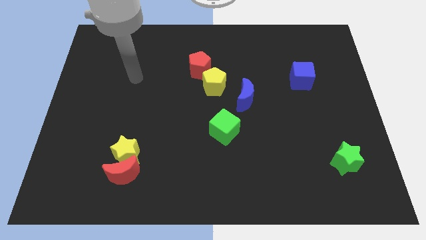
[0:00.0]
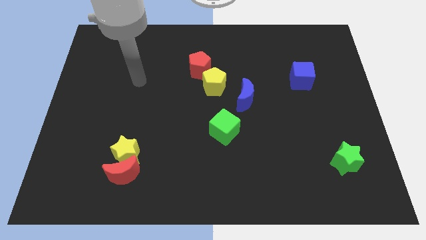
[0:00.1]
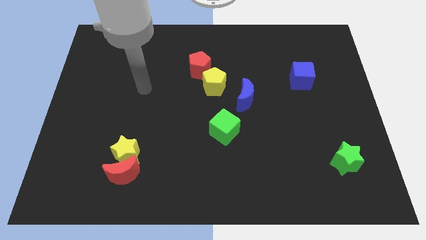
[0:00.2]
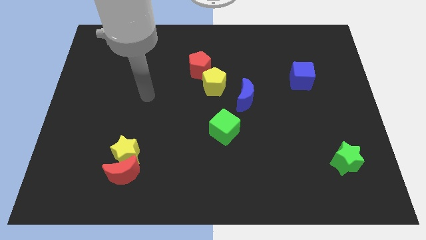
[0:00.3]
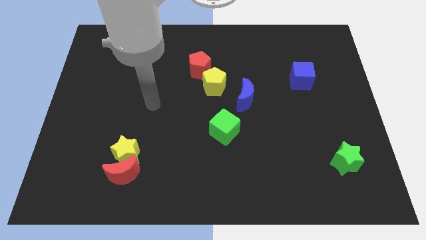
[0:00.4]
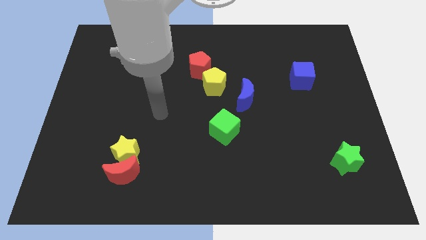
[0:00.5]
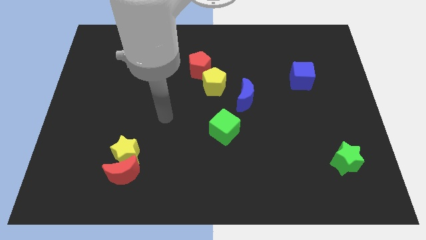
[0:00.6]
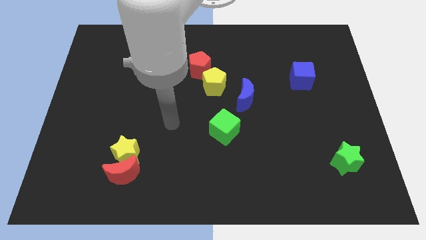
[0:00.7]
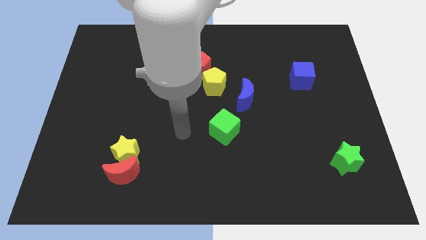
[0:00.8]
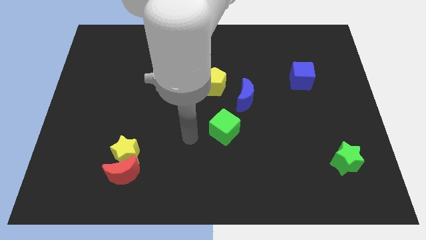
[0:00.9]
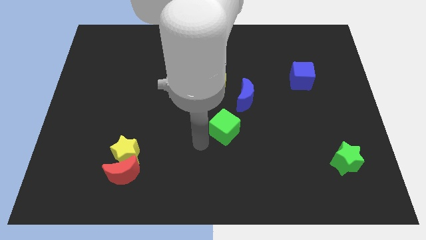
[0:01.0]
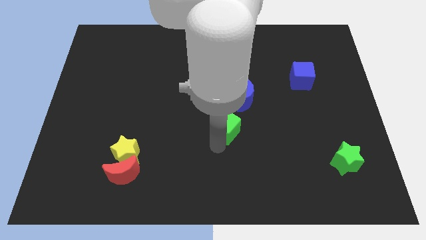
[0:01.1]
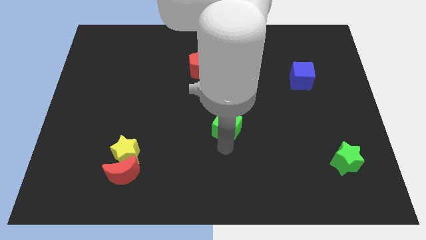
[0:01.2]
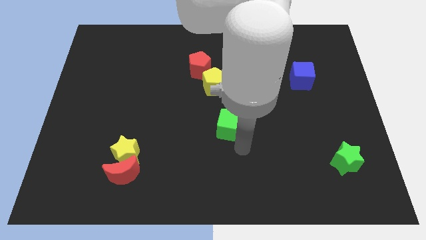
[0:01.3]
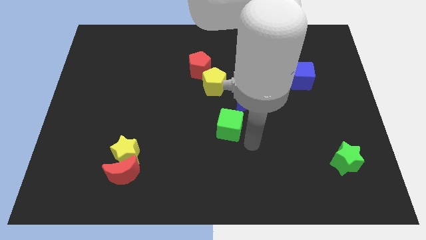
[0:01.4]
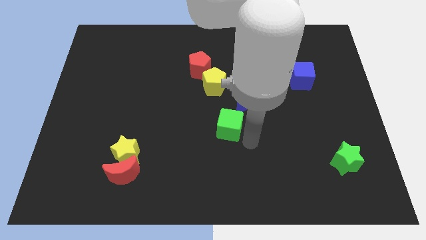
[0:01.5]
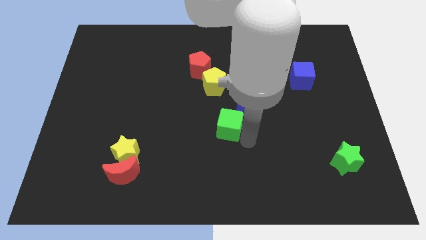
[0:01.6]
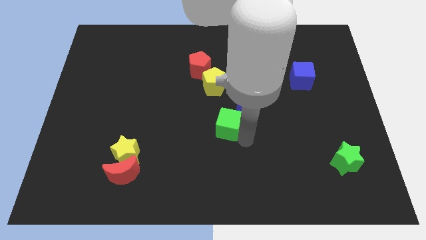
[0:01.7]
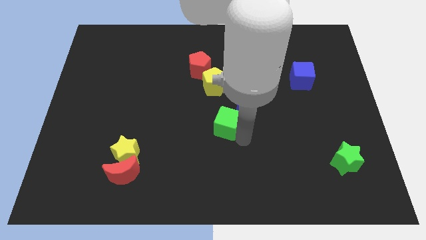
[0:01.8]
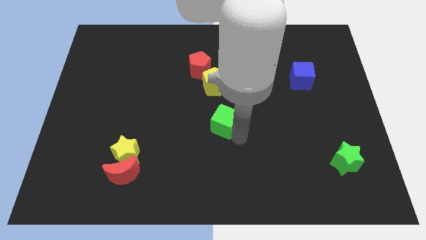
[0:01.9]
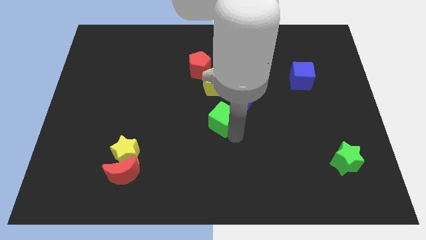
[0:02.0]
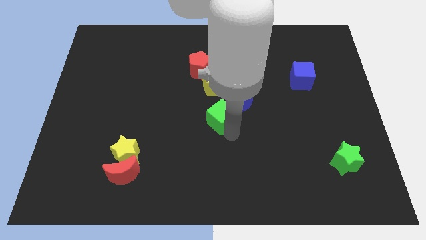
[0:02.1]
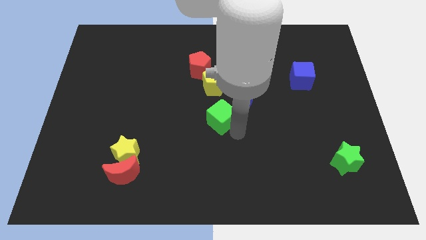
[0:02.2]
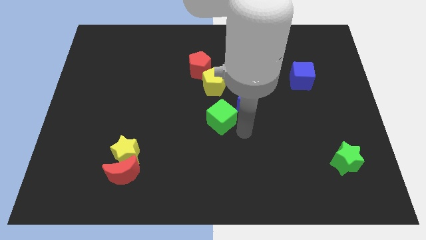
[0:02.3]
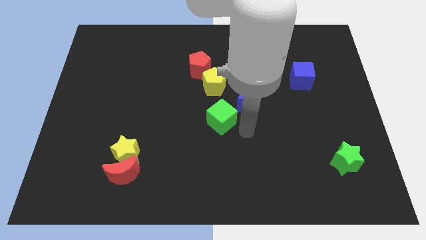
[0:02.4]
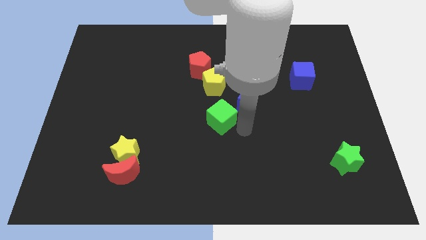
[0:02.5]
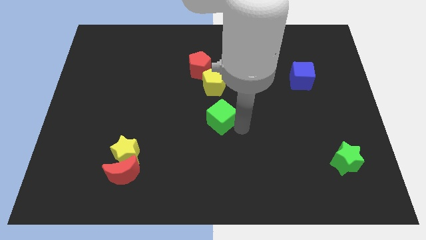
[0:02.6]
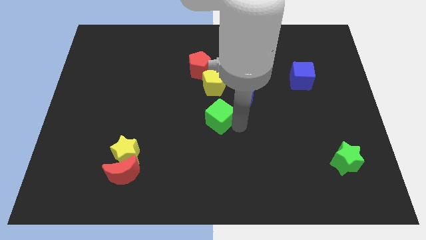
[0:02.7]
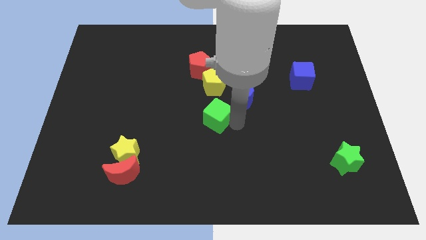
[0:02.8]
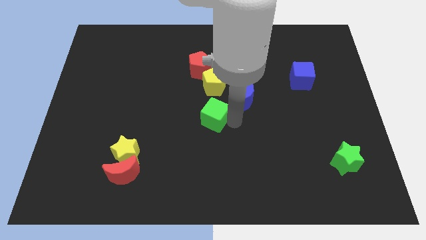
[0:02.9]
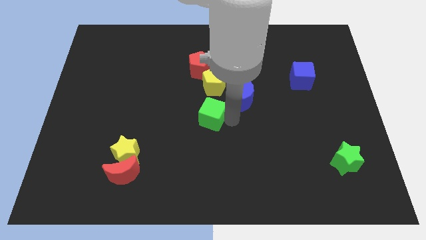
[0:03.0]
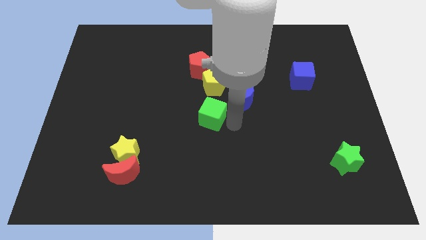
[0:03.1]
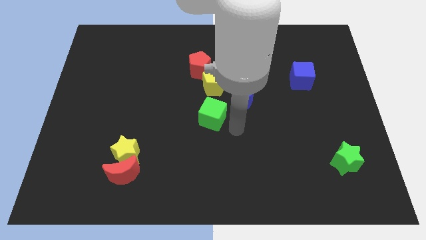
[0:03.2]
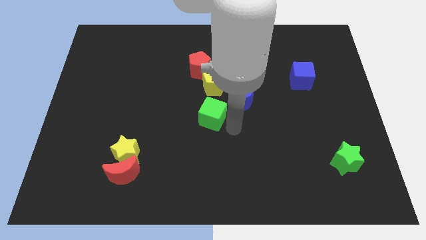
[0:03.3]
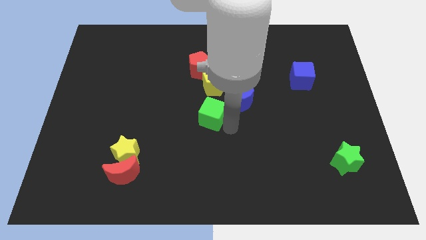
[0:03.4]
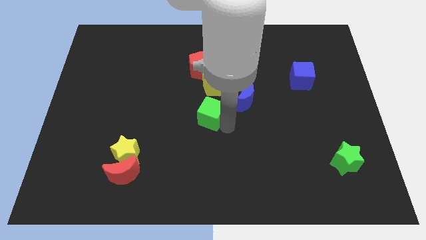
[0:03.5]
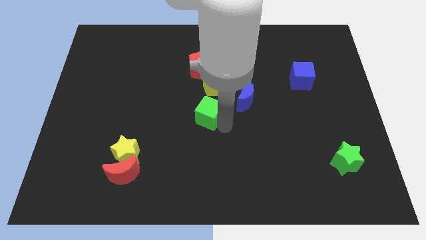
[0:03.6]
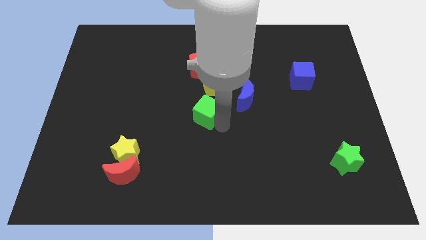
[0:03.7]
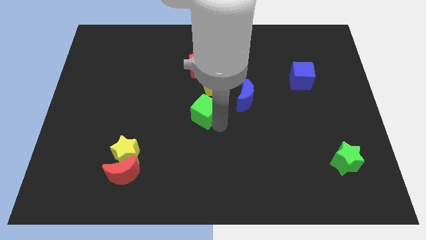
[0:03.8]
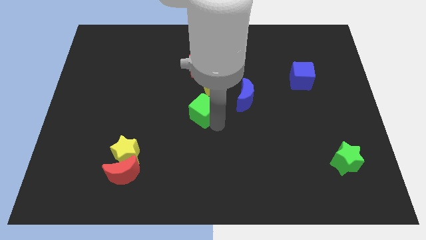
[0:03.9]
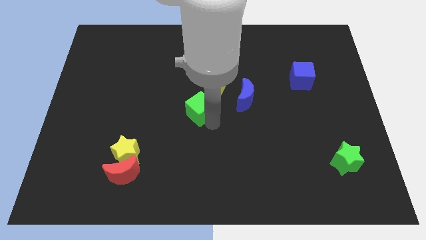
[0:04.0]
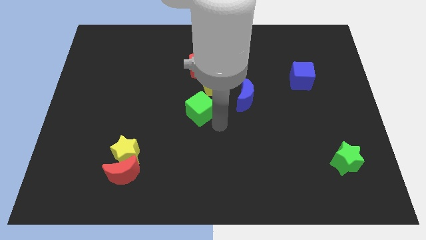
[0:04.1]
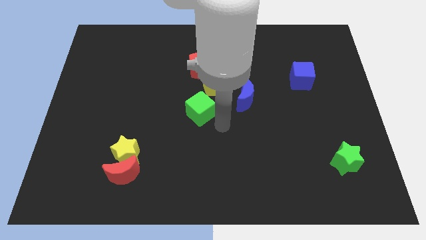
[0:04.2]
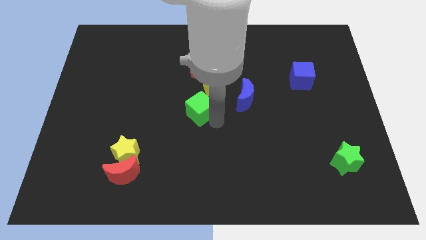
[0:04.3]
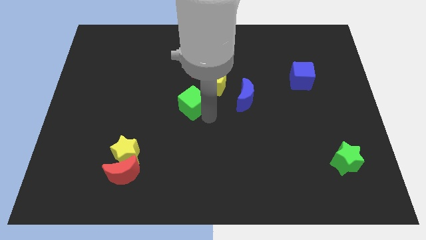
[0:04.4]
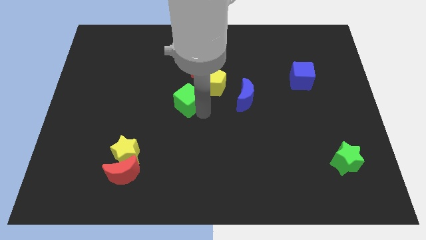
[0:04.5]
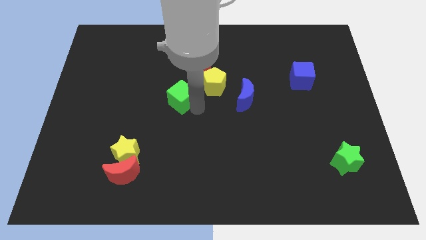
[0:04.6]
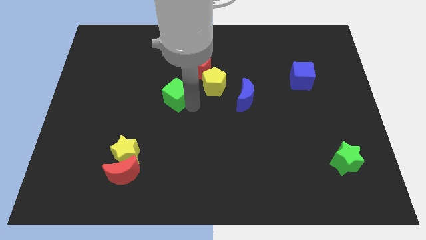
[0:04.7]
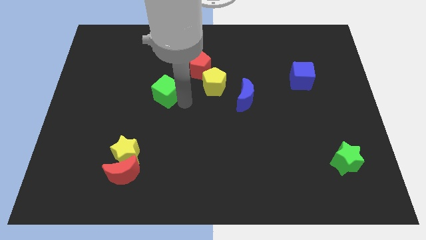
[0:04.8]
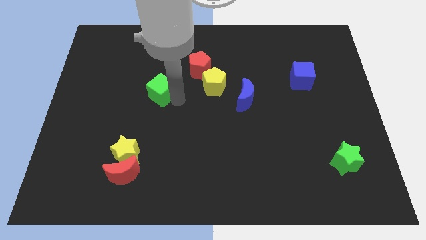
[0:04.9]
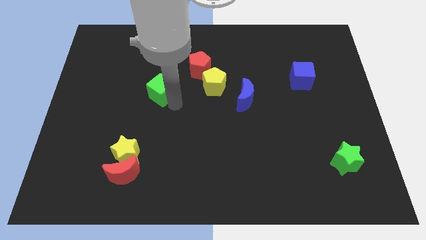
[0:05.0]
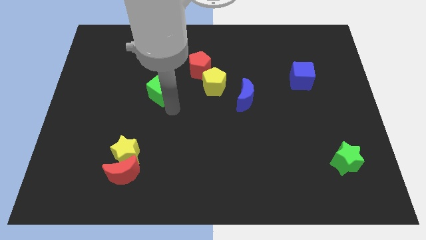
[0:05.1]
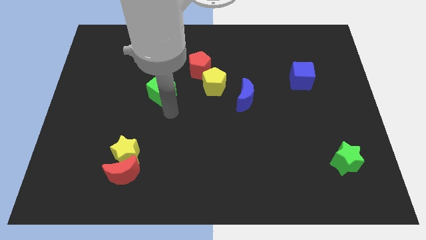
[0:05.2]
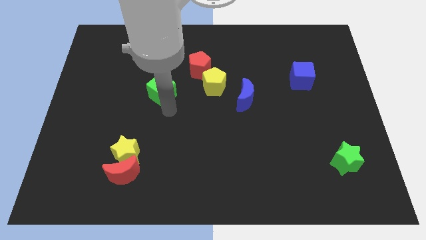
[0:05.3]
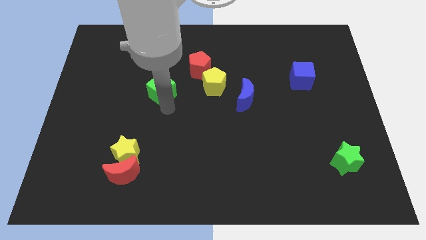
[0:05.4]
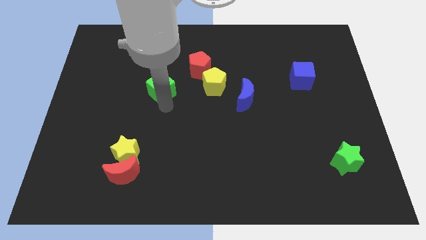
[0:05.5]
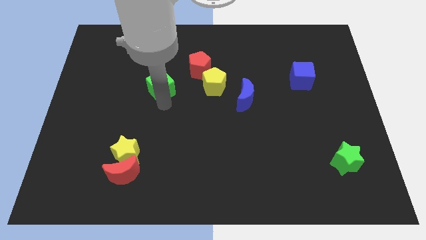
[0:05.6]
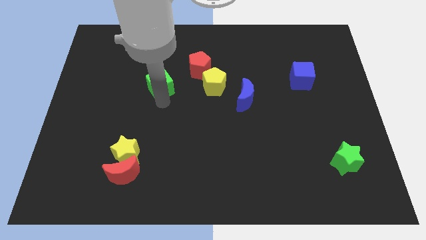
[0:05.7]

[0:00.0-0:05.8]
move the green cube diagonally up and to the left

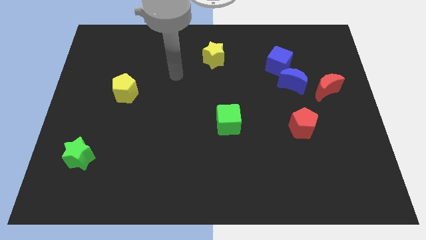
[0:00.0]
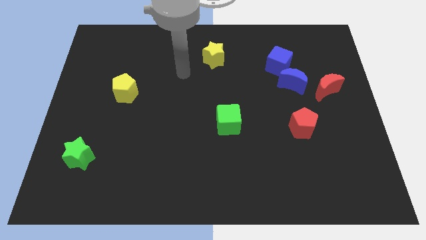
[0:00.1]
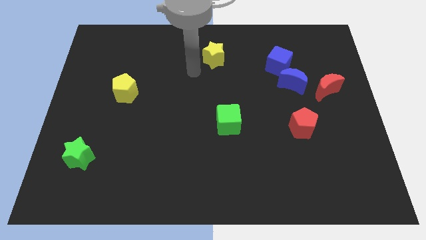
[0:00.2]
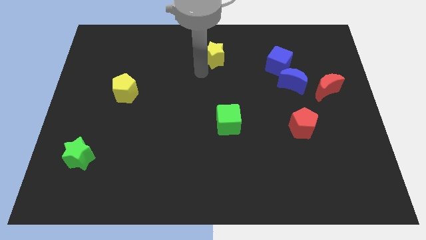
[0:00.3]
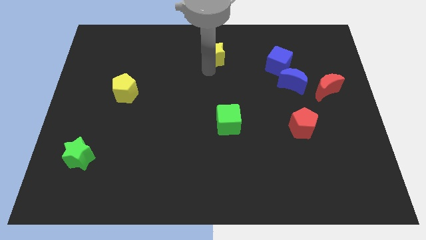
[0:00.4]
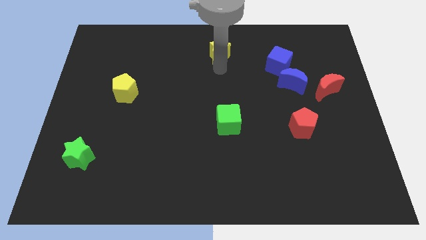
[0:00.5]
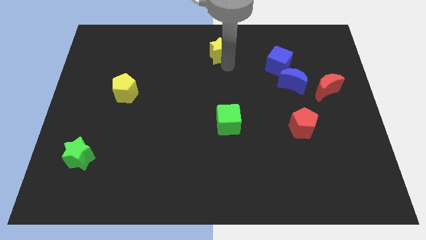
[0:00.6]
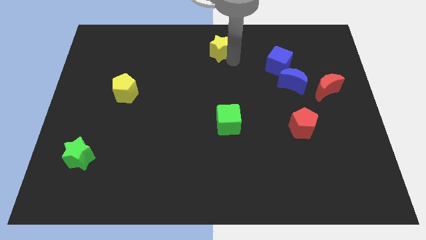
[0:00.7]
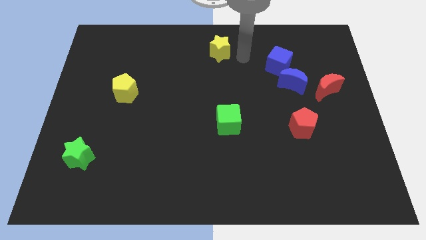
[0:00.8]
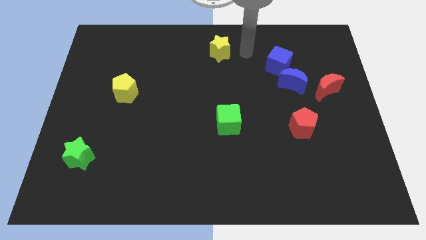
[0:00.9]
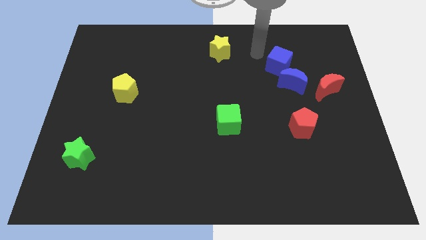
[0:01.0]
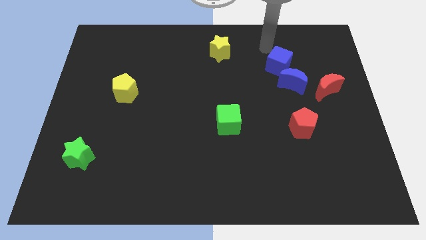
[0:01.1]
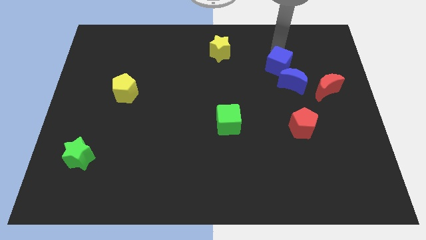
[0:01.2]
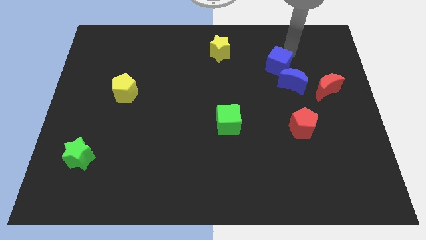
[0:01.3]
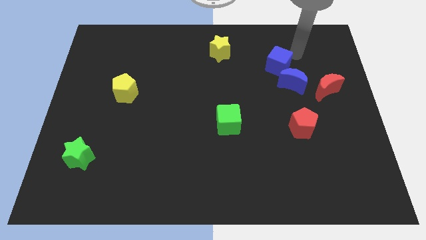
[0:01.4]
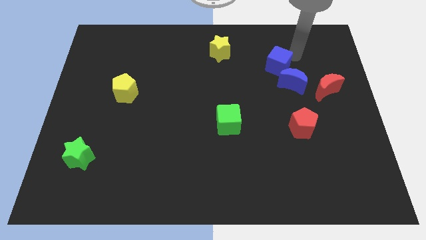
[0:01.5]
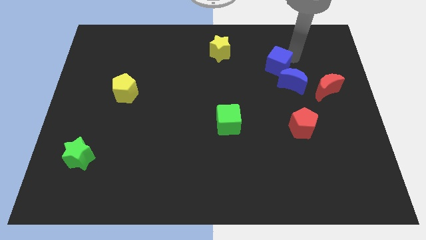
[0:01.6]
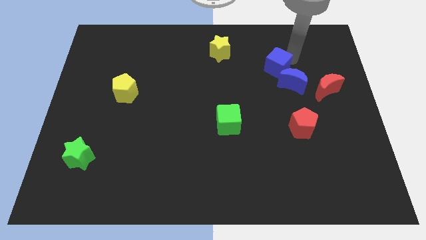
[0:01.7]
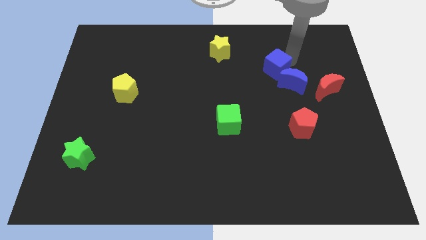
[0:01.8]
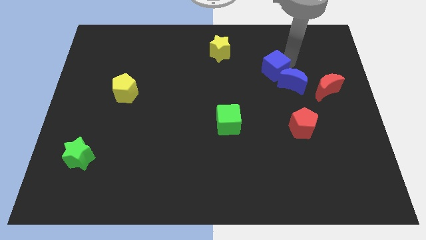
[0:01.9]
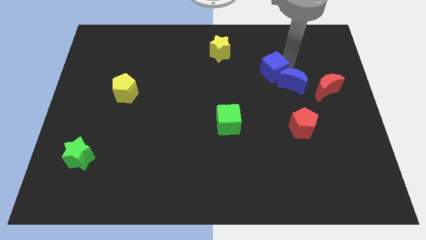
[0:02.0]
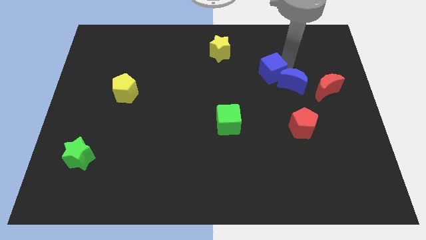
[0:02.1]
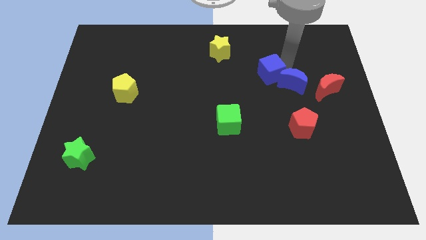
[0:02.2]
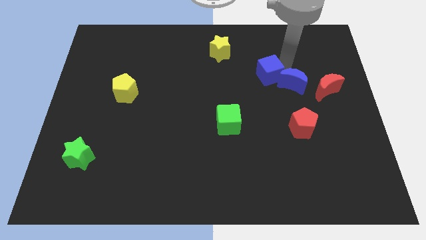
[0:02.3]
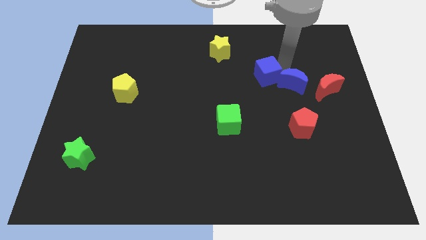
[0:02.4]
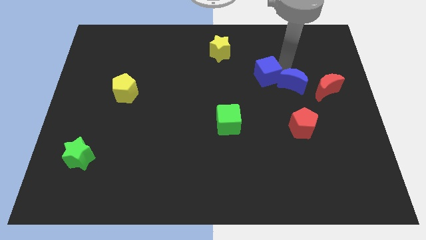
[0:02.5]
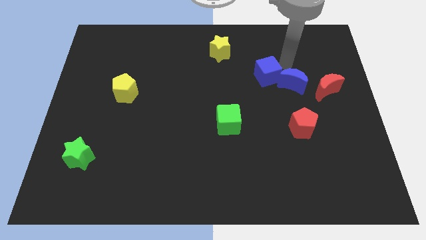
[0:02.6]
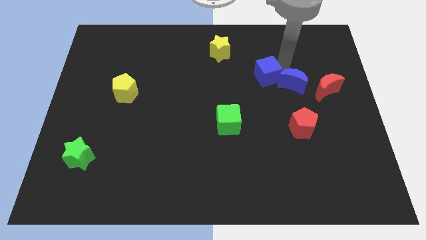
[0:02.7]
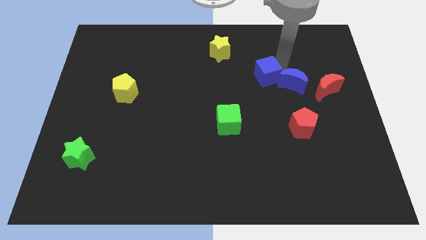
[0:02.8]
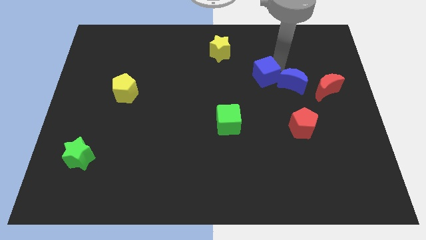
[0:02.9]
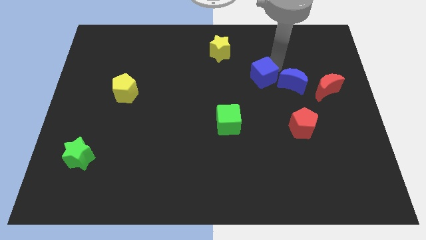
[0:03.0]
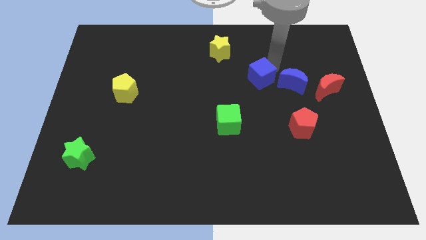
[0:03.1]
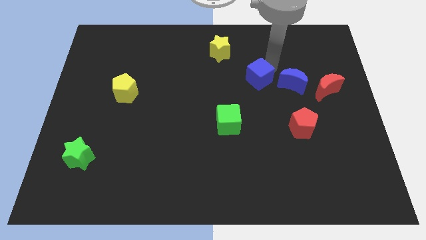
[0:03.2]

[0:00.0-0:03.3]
slide the blue cube a little bit diagonally down and left
